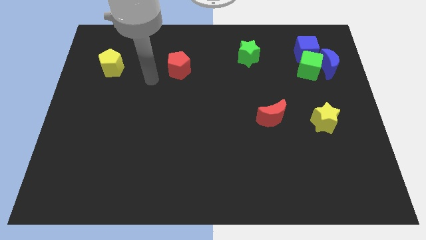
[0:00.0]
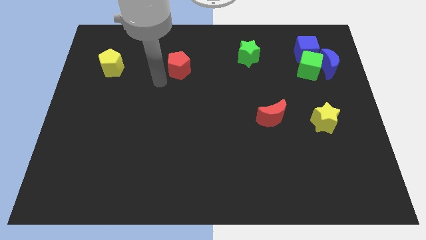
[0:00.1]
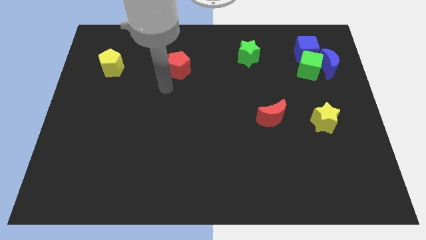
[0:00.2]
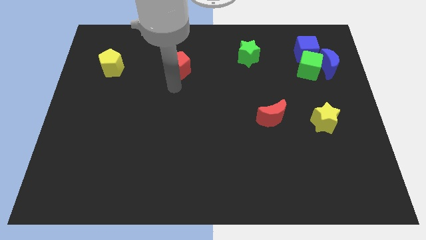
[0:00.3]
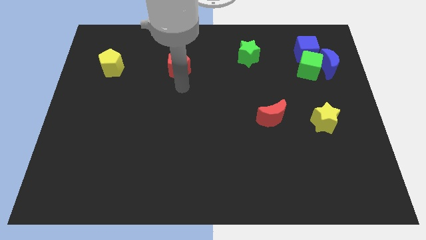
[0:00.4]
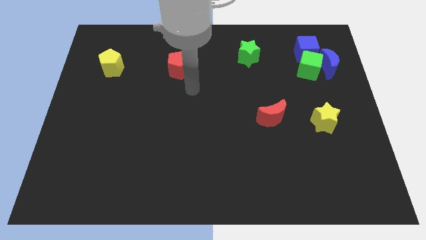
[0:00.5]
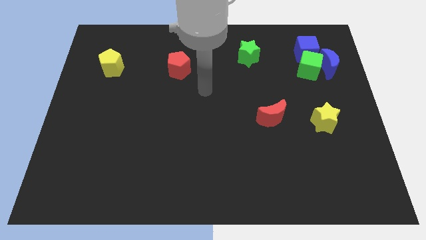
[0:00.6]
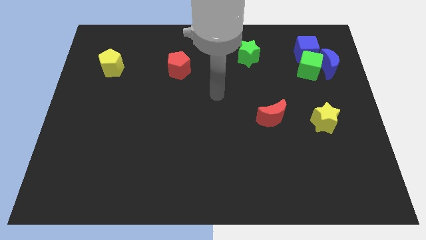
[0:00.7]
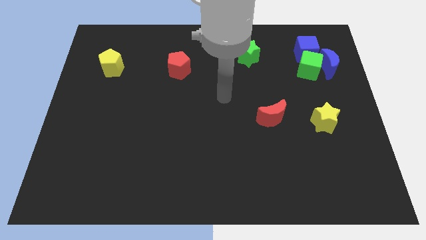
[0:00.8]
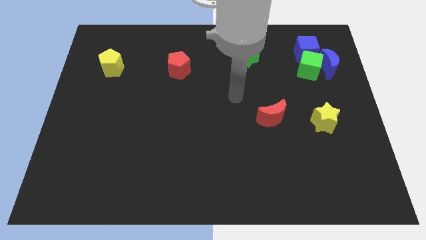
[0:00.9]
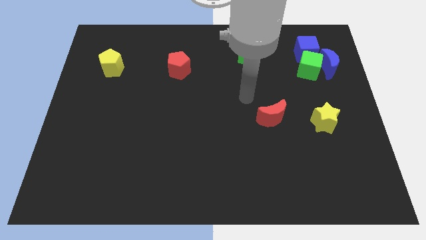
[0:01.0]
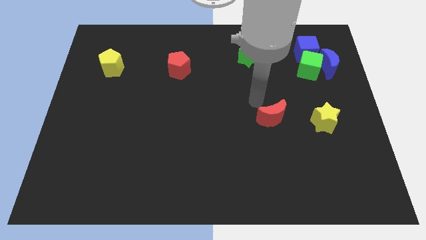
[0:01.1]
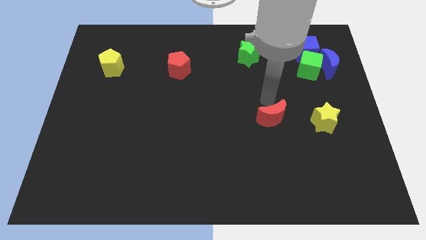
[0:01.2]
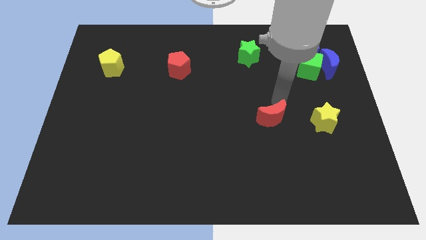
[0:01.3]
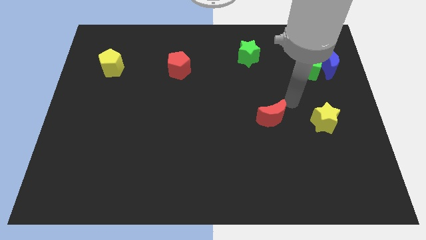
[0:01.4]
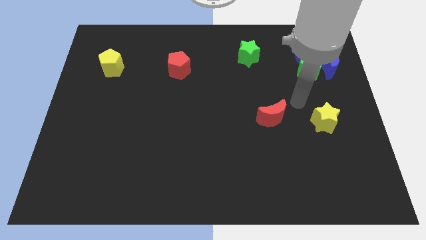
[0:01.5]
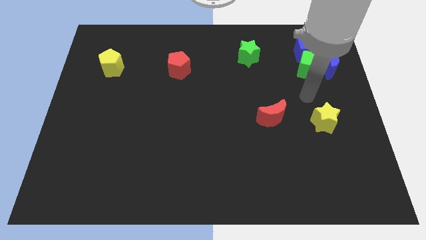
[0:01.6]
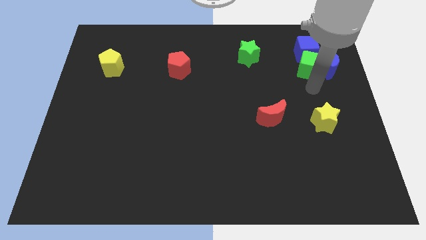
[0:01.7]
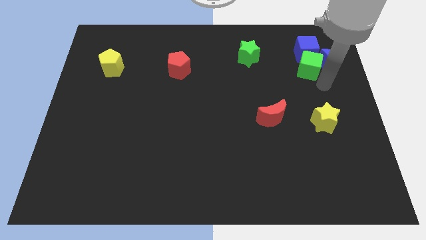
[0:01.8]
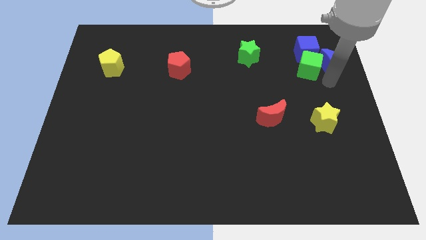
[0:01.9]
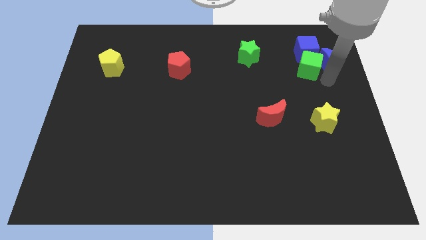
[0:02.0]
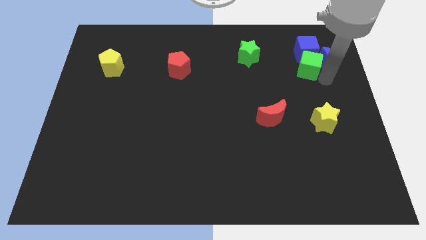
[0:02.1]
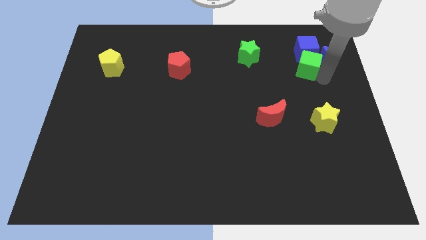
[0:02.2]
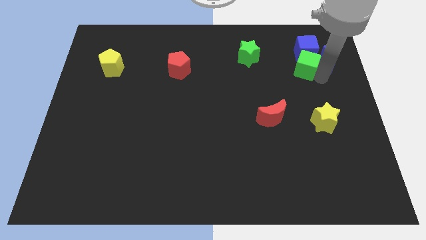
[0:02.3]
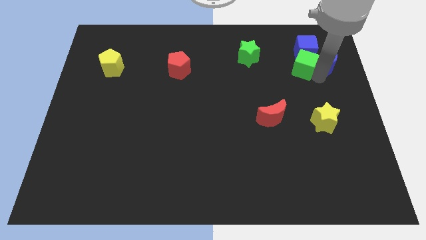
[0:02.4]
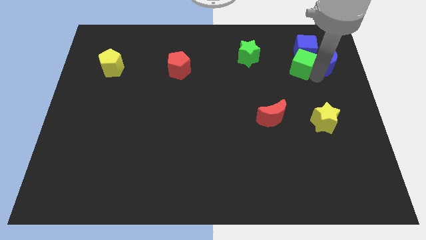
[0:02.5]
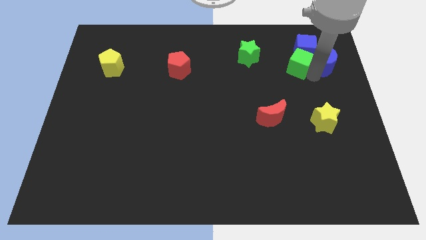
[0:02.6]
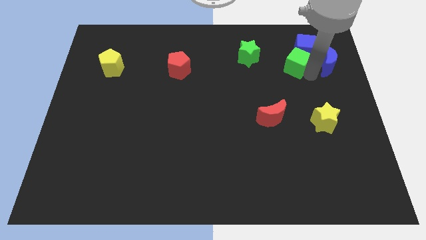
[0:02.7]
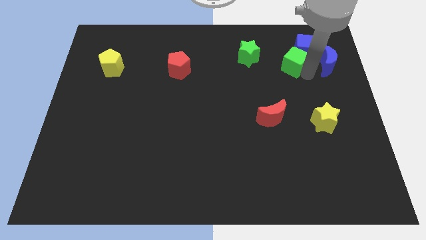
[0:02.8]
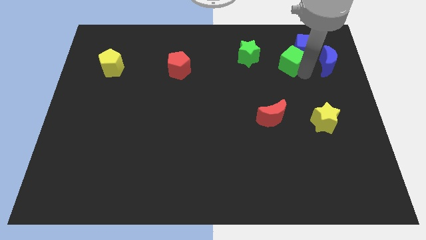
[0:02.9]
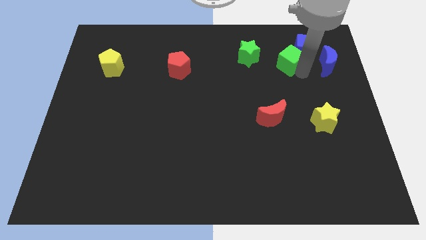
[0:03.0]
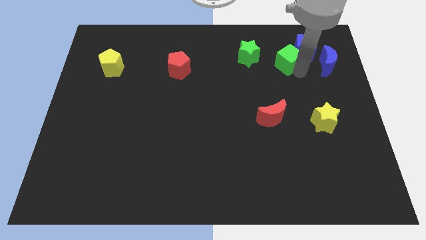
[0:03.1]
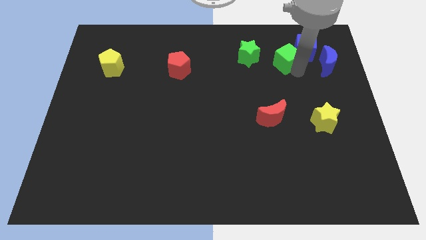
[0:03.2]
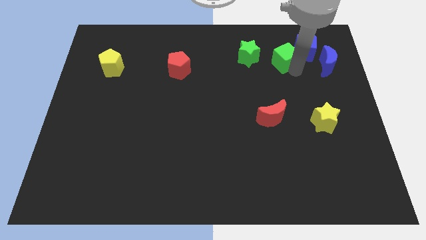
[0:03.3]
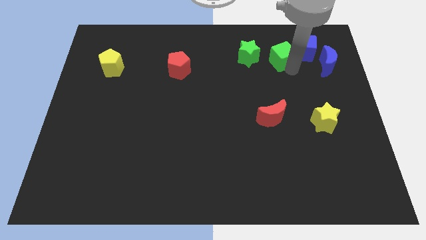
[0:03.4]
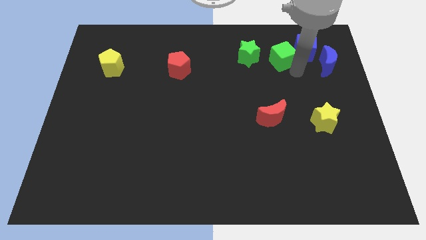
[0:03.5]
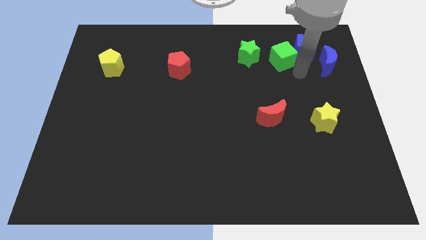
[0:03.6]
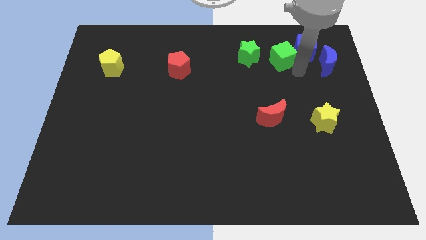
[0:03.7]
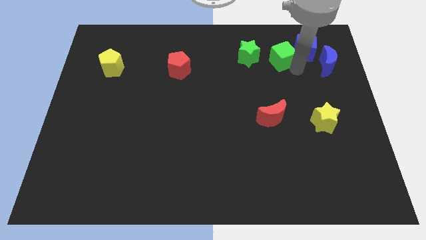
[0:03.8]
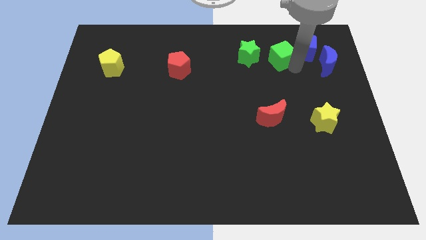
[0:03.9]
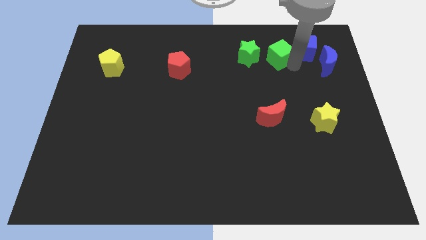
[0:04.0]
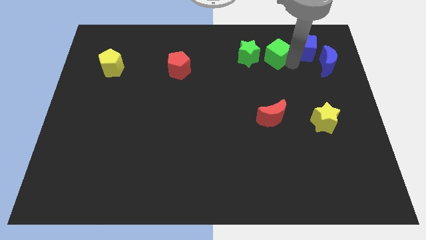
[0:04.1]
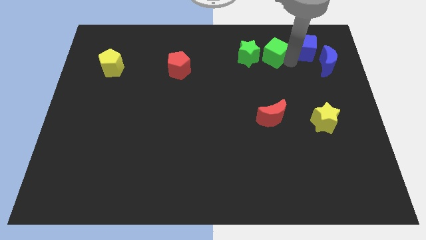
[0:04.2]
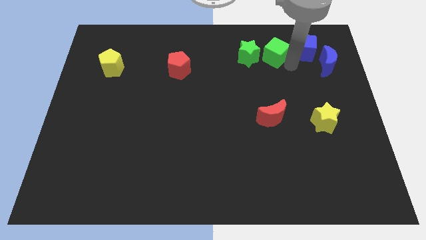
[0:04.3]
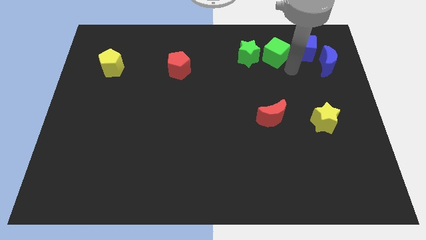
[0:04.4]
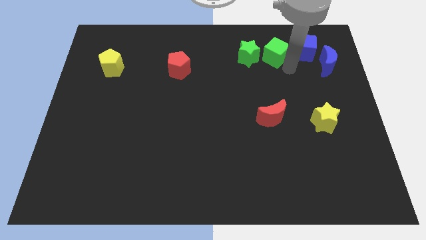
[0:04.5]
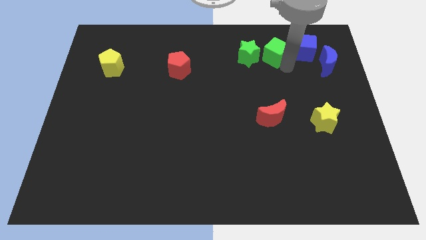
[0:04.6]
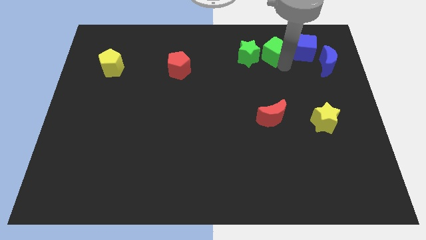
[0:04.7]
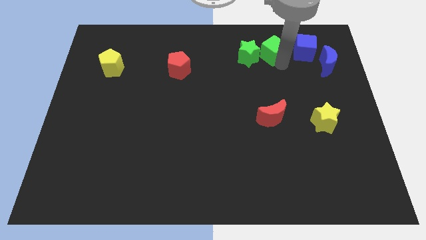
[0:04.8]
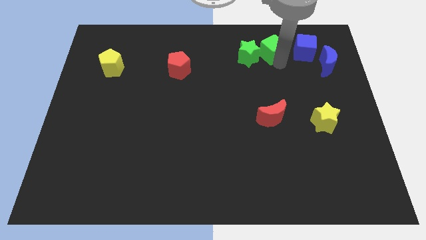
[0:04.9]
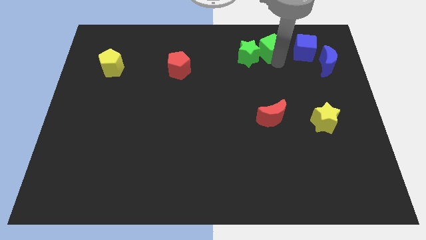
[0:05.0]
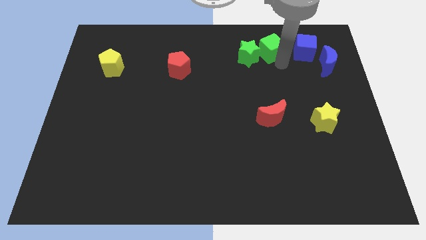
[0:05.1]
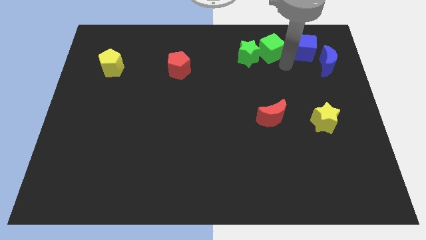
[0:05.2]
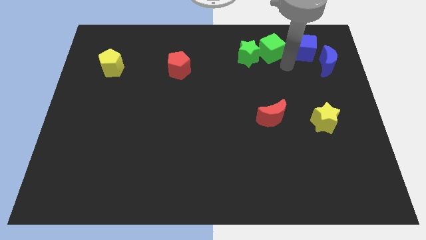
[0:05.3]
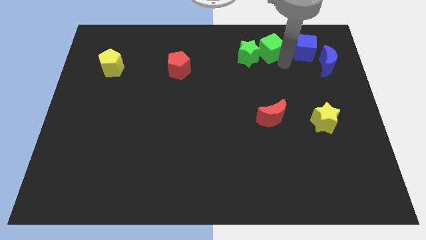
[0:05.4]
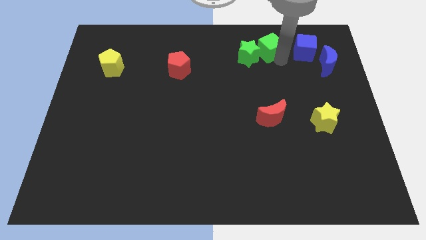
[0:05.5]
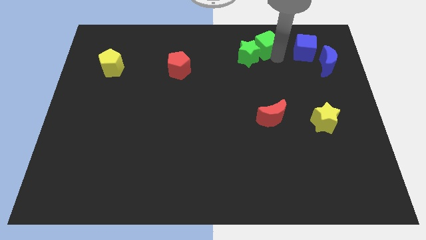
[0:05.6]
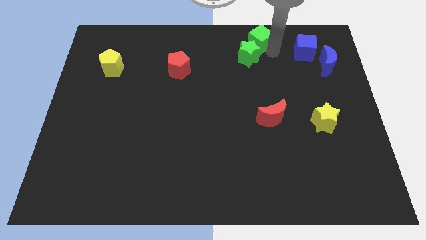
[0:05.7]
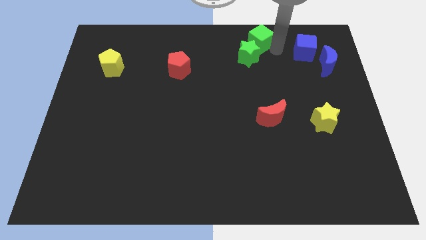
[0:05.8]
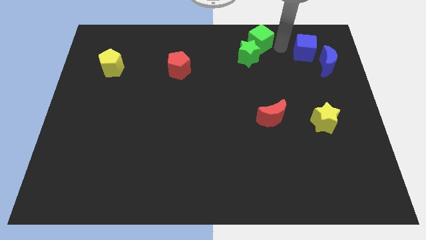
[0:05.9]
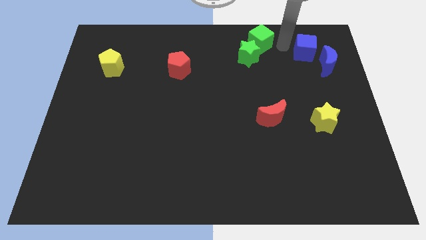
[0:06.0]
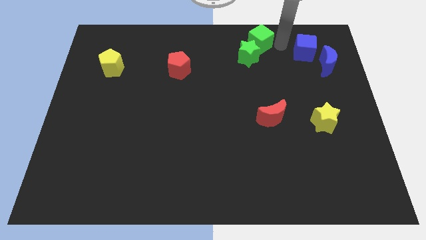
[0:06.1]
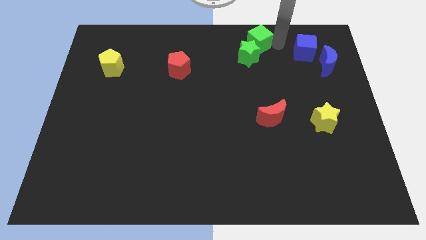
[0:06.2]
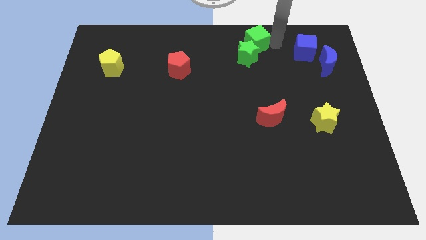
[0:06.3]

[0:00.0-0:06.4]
move the green cube to the towards your base
